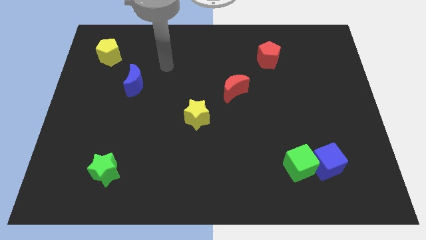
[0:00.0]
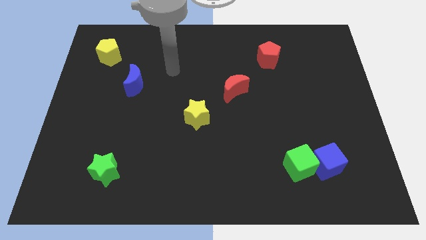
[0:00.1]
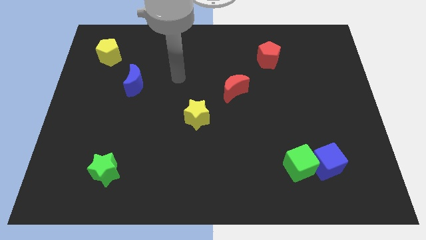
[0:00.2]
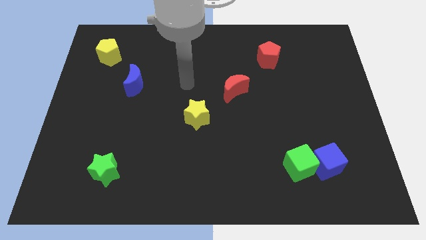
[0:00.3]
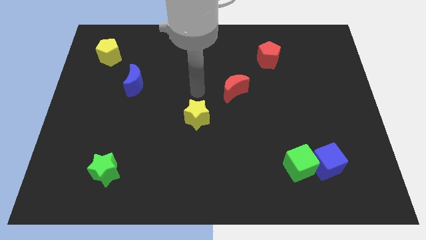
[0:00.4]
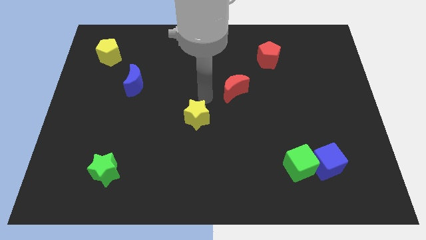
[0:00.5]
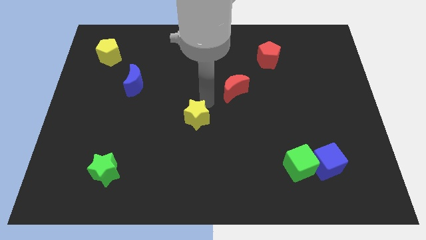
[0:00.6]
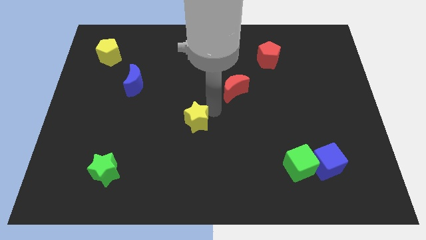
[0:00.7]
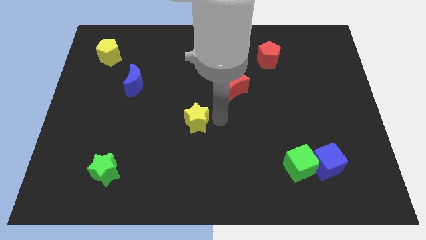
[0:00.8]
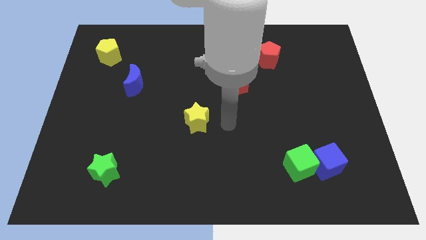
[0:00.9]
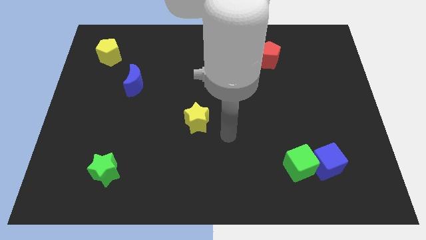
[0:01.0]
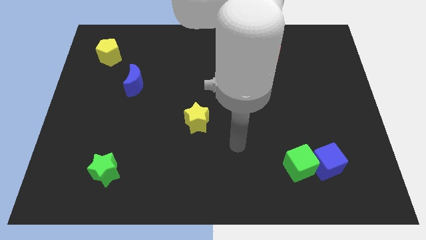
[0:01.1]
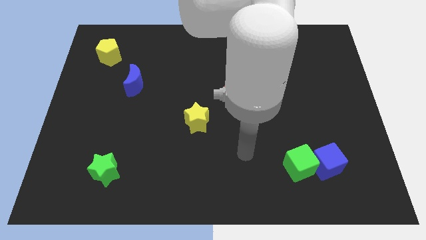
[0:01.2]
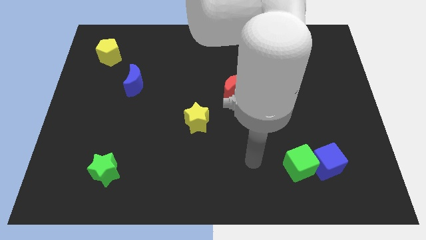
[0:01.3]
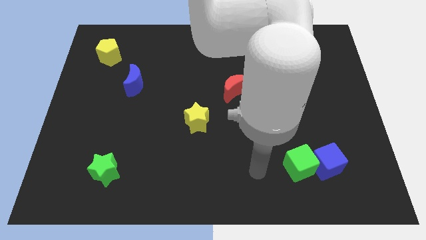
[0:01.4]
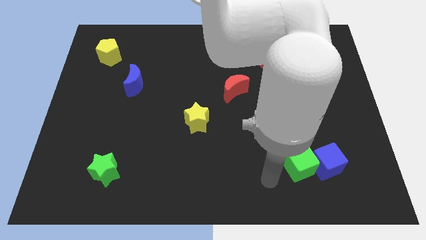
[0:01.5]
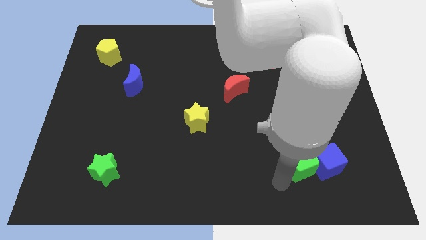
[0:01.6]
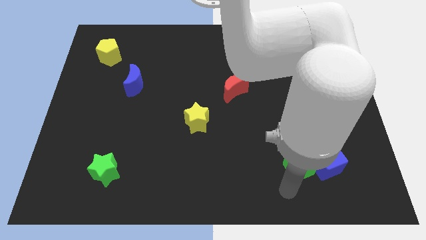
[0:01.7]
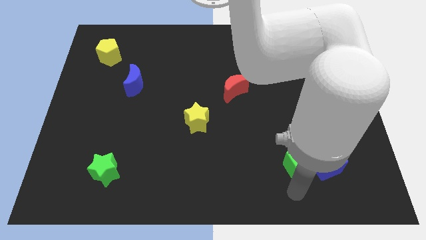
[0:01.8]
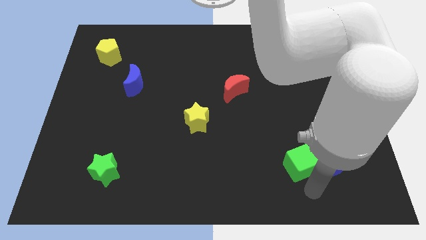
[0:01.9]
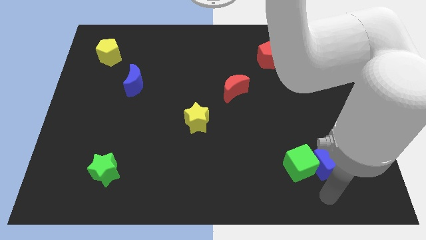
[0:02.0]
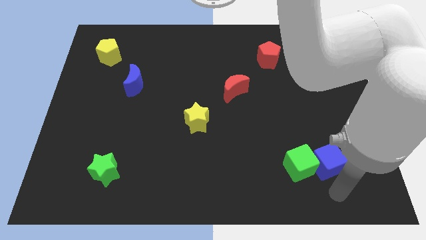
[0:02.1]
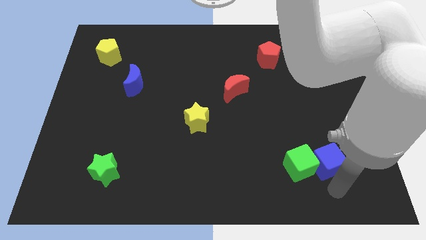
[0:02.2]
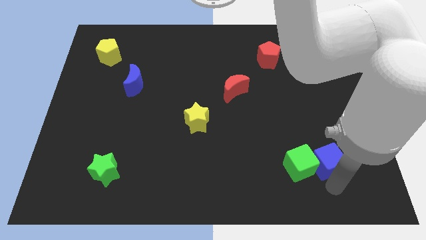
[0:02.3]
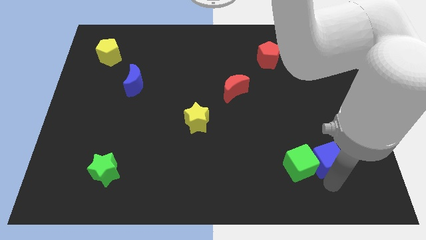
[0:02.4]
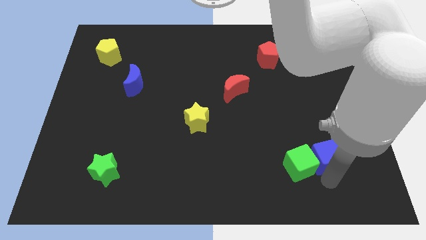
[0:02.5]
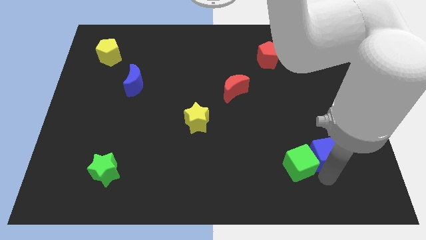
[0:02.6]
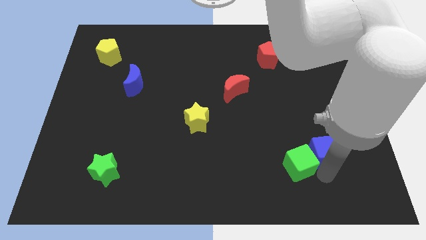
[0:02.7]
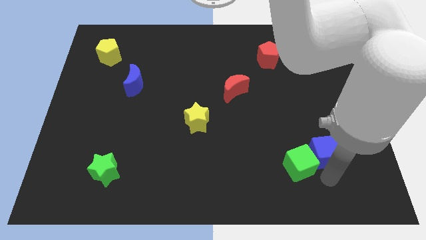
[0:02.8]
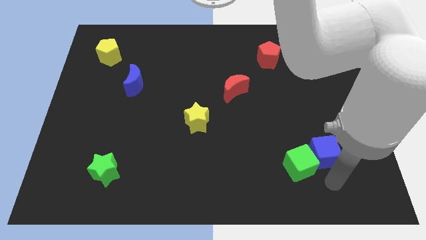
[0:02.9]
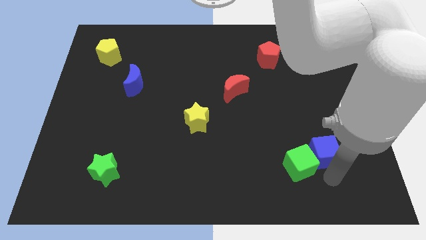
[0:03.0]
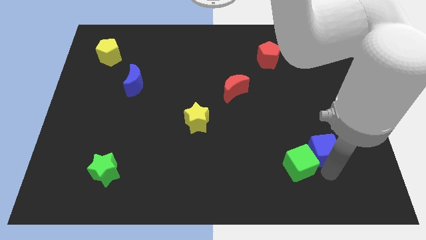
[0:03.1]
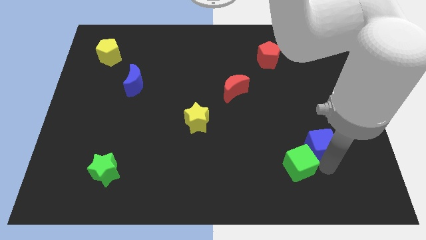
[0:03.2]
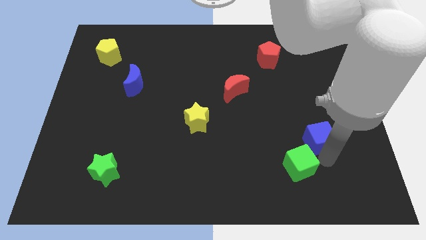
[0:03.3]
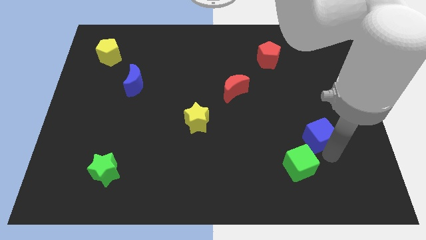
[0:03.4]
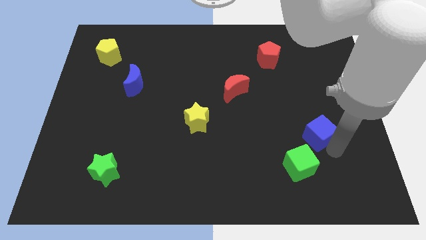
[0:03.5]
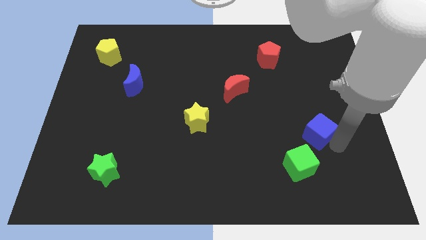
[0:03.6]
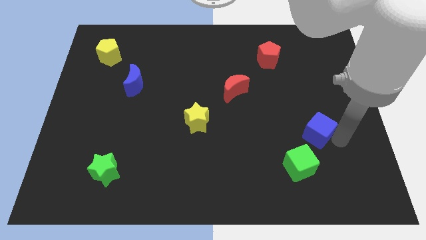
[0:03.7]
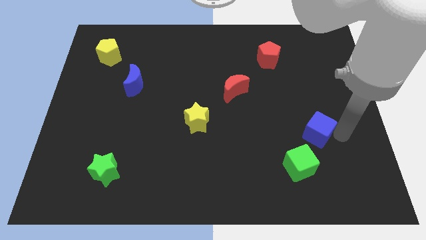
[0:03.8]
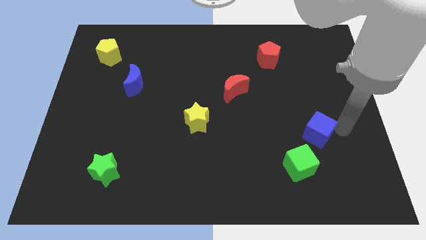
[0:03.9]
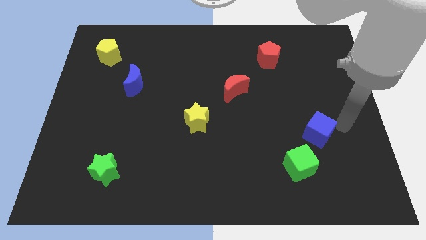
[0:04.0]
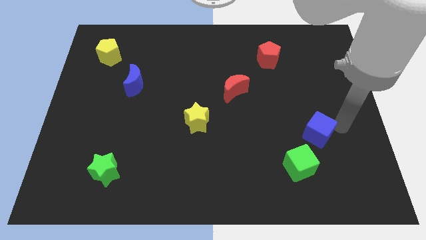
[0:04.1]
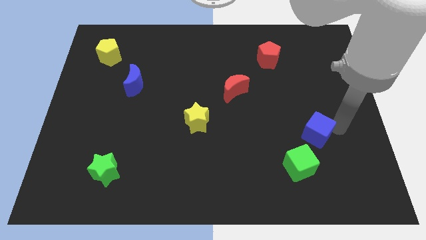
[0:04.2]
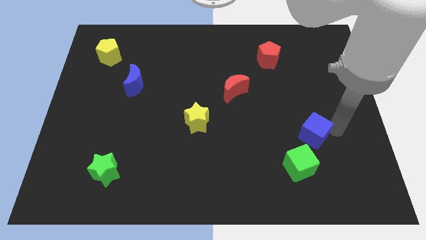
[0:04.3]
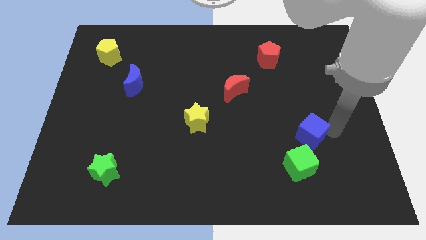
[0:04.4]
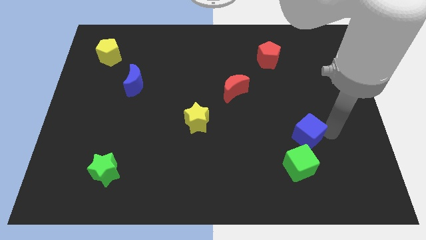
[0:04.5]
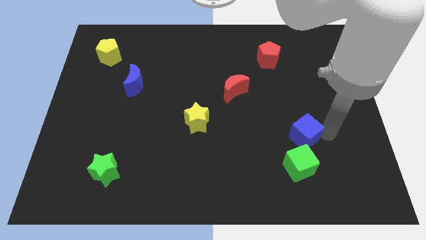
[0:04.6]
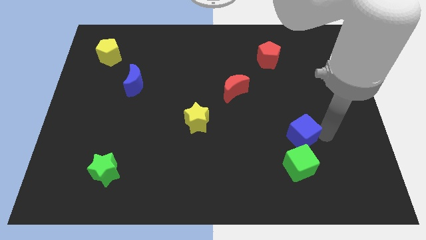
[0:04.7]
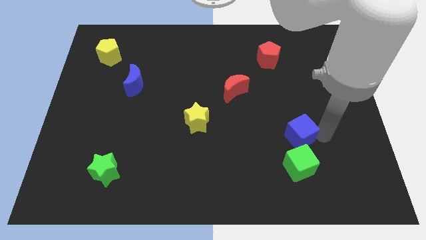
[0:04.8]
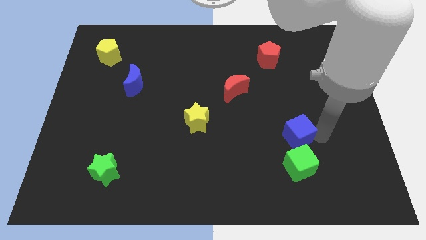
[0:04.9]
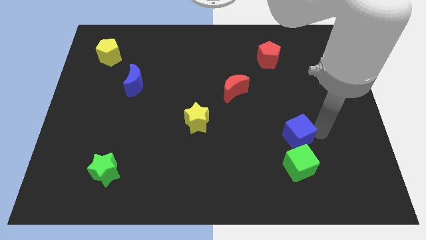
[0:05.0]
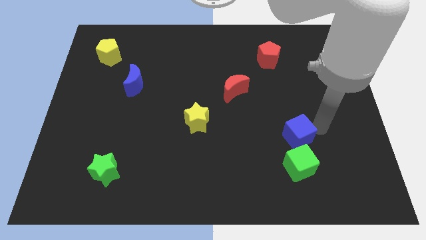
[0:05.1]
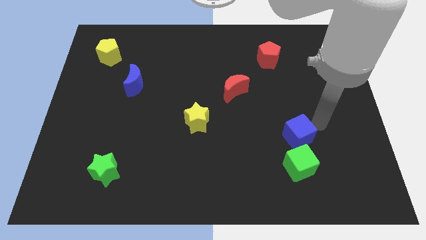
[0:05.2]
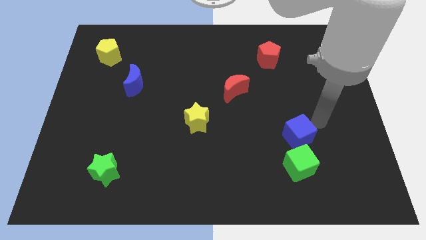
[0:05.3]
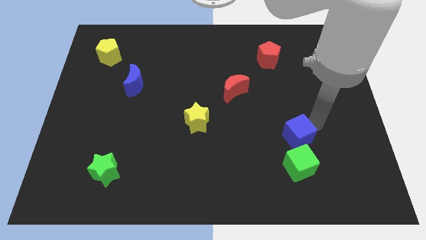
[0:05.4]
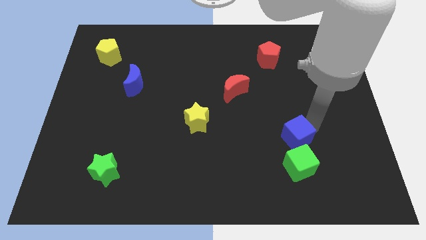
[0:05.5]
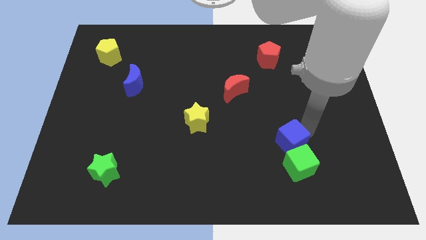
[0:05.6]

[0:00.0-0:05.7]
push the blue cube to the top left of the green cube

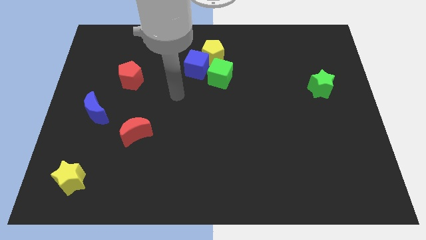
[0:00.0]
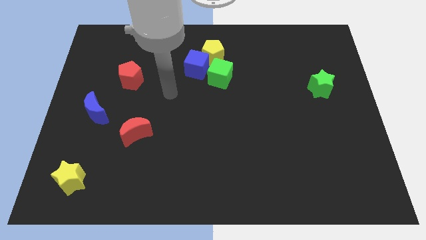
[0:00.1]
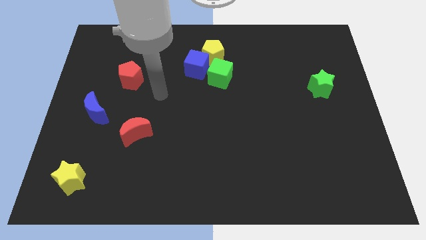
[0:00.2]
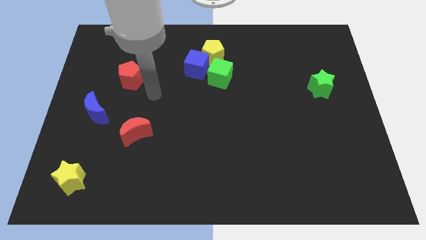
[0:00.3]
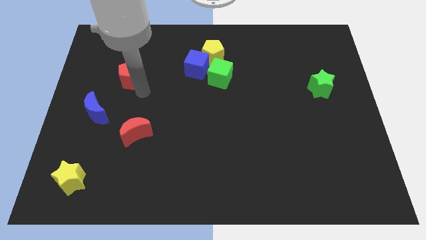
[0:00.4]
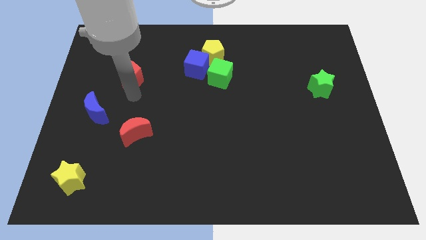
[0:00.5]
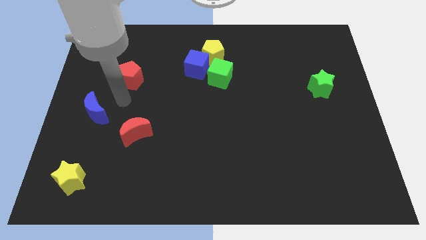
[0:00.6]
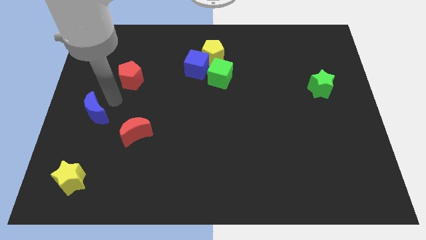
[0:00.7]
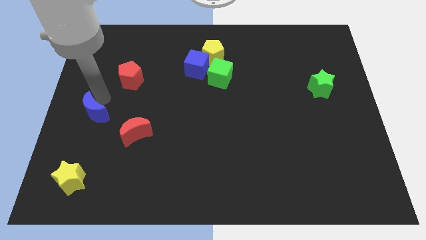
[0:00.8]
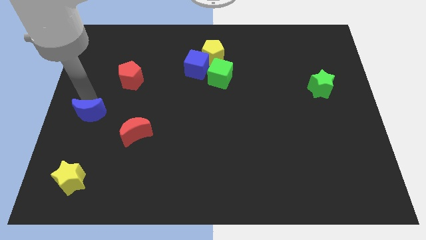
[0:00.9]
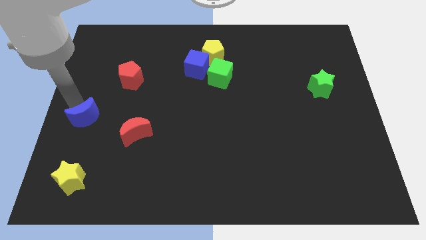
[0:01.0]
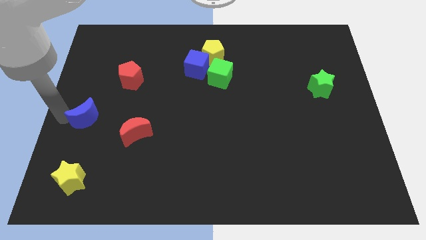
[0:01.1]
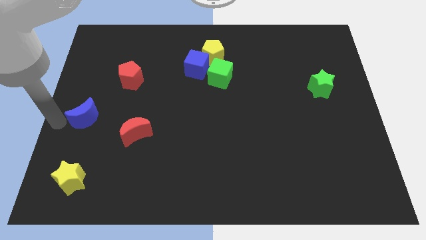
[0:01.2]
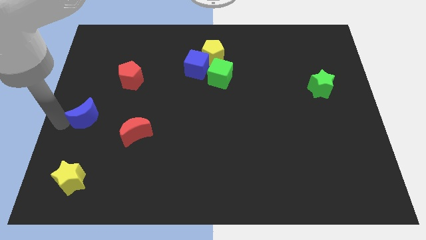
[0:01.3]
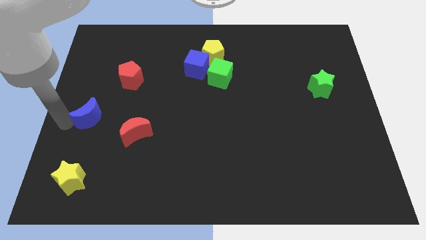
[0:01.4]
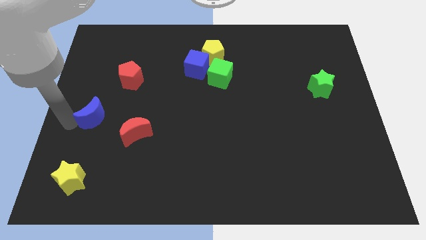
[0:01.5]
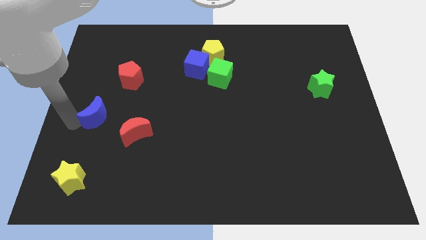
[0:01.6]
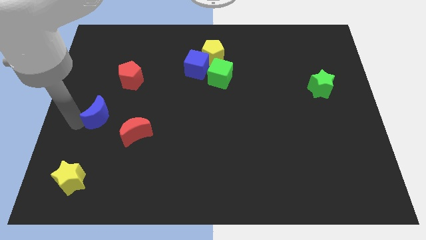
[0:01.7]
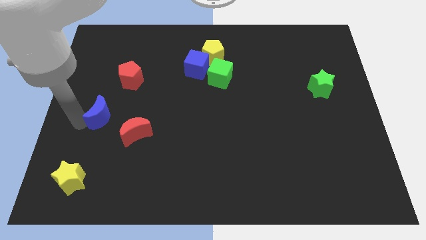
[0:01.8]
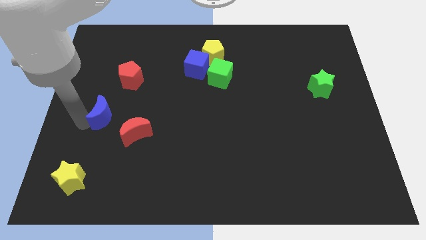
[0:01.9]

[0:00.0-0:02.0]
slide the blue moon below the red pentagon

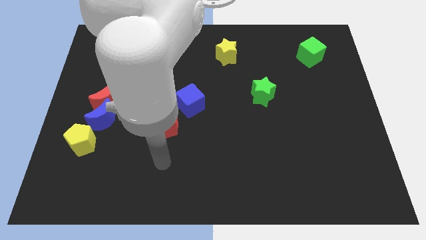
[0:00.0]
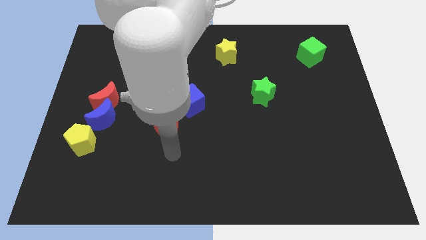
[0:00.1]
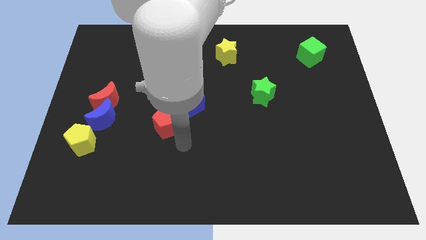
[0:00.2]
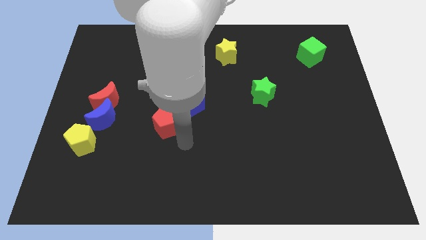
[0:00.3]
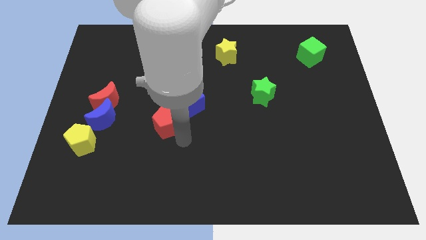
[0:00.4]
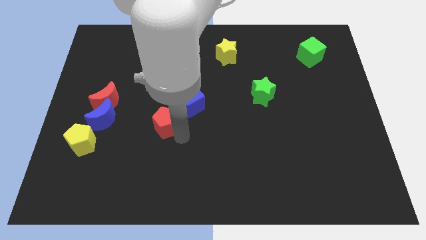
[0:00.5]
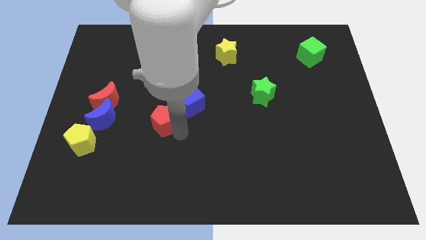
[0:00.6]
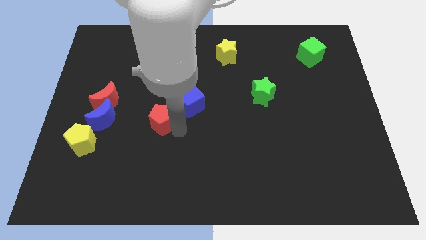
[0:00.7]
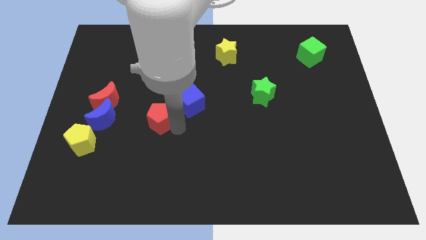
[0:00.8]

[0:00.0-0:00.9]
move the red pentagon just left of the blue cube
